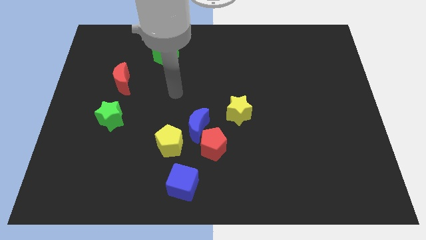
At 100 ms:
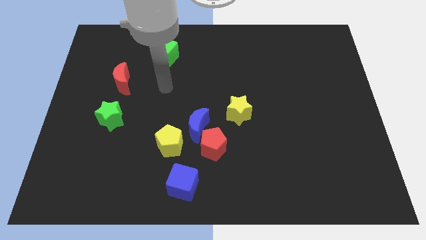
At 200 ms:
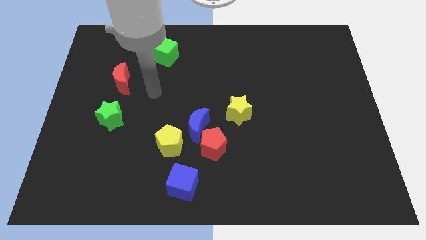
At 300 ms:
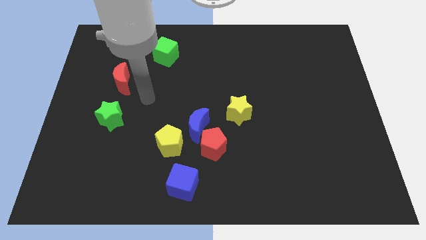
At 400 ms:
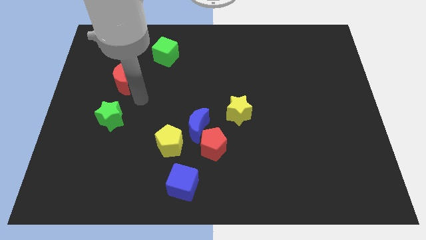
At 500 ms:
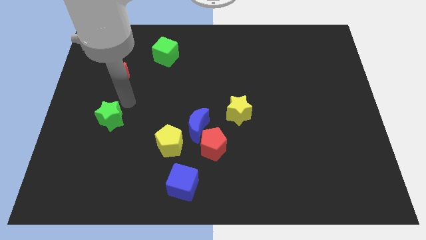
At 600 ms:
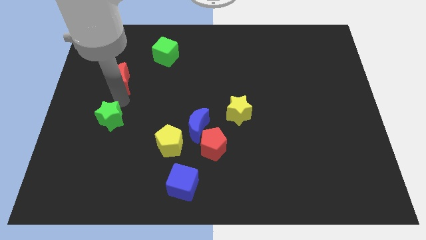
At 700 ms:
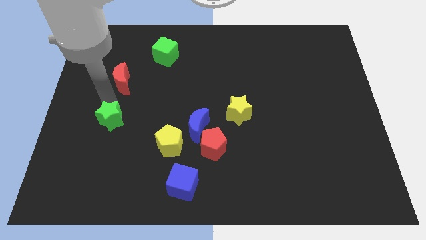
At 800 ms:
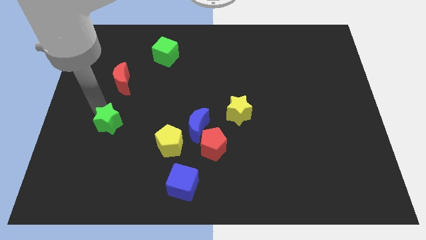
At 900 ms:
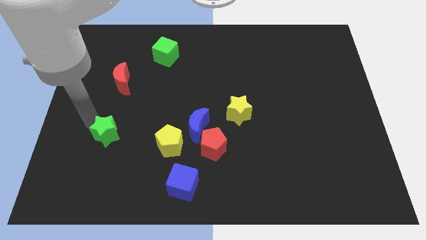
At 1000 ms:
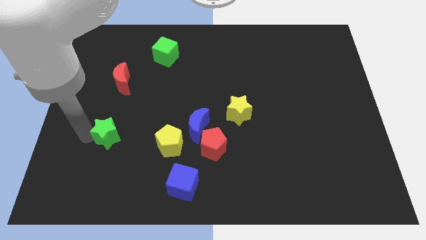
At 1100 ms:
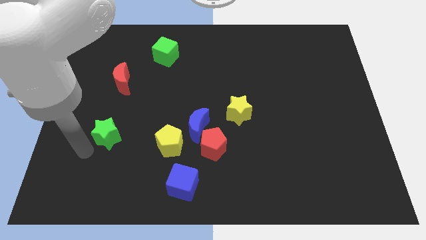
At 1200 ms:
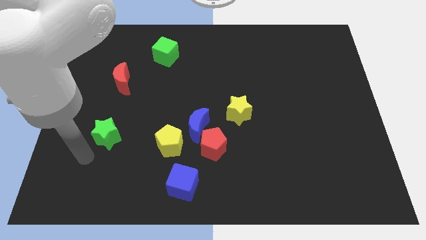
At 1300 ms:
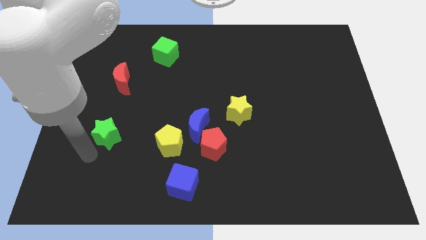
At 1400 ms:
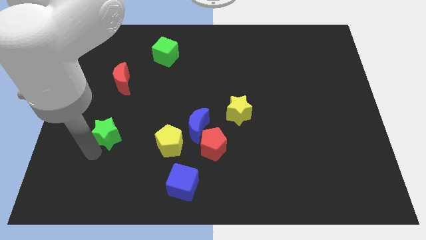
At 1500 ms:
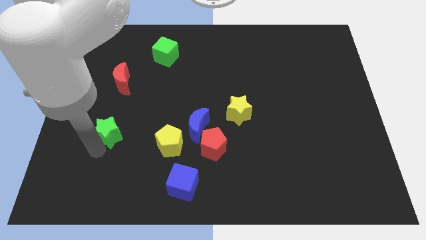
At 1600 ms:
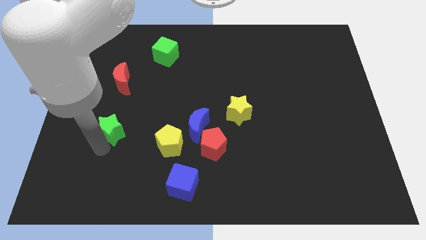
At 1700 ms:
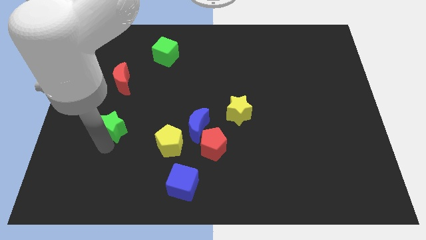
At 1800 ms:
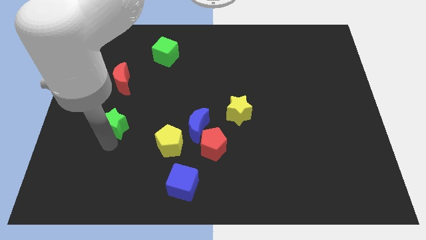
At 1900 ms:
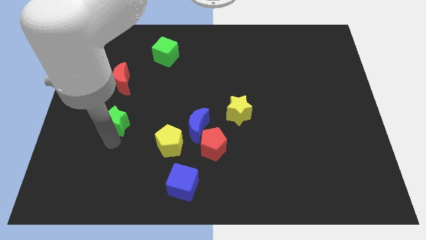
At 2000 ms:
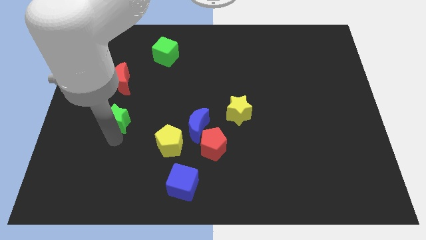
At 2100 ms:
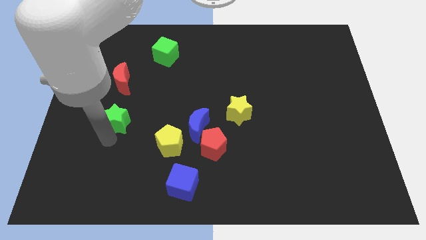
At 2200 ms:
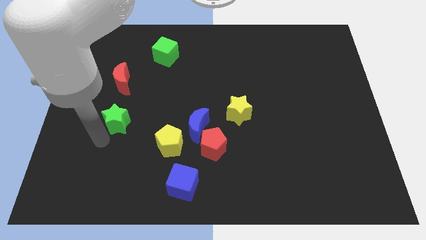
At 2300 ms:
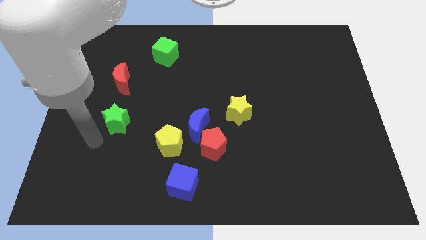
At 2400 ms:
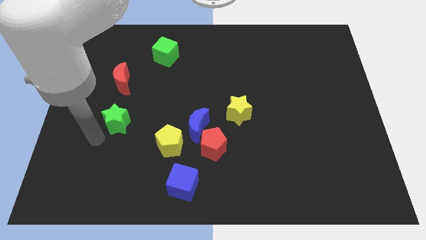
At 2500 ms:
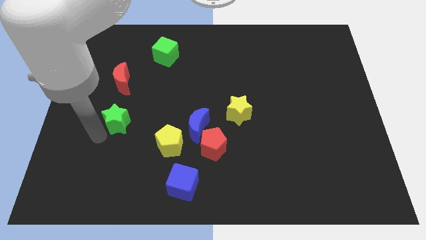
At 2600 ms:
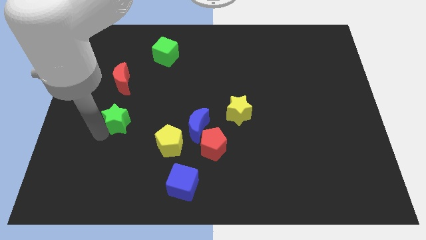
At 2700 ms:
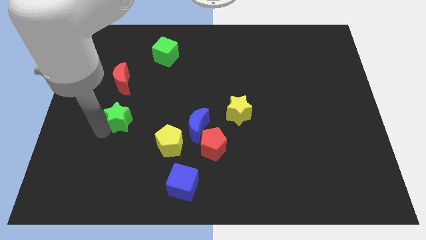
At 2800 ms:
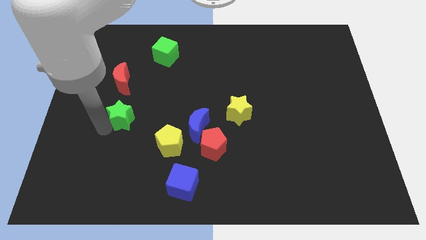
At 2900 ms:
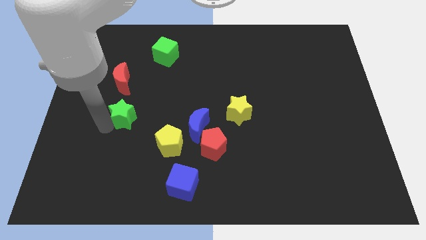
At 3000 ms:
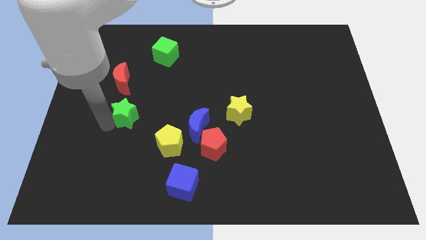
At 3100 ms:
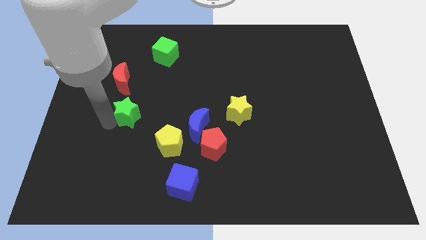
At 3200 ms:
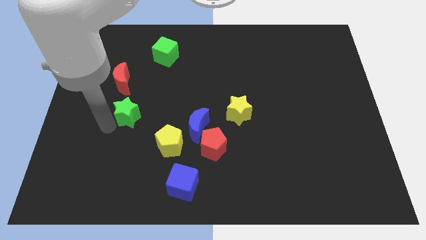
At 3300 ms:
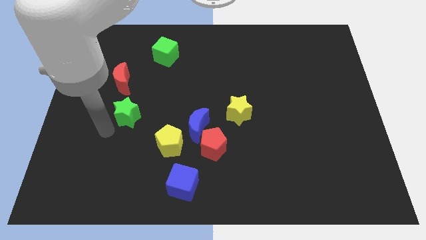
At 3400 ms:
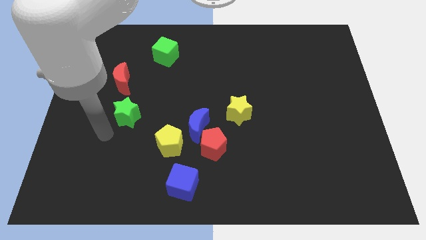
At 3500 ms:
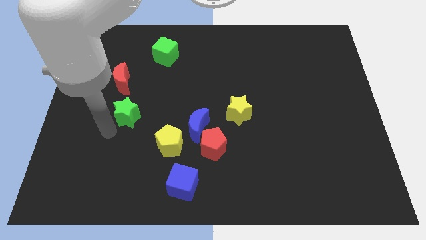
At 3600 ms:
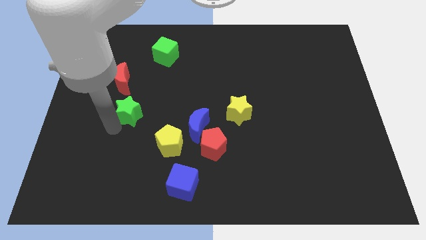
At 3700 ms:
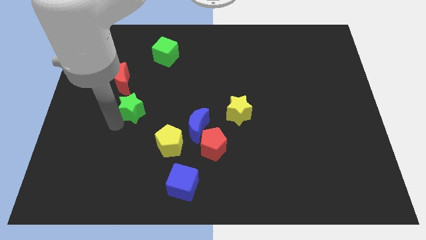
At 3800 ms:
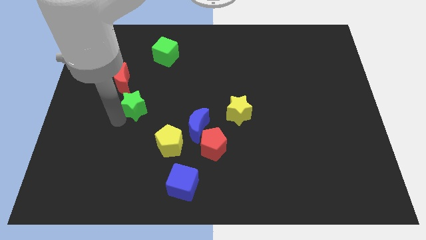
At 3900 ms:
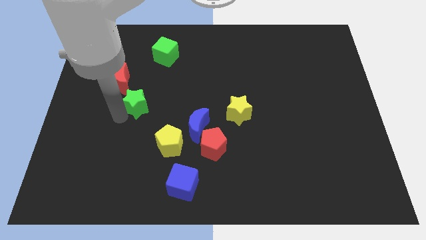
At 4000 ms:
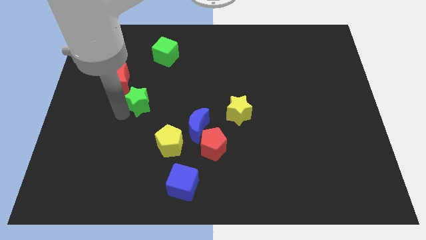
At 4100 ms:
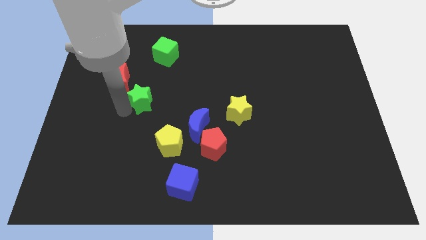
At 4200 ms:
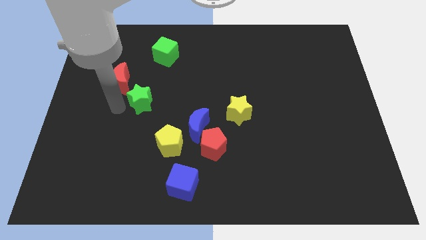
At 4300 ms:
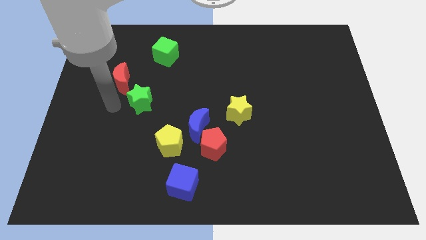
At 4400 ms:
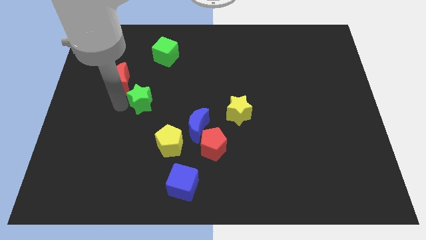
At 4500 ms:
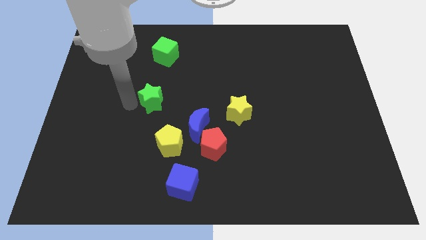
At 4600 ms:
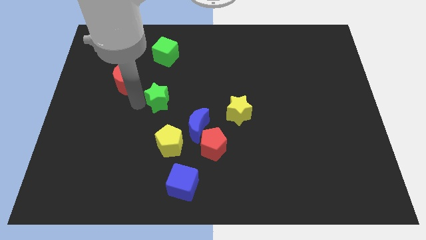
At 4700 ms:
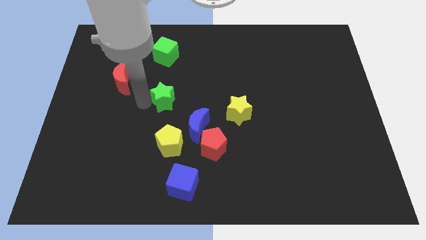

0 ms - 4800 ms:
move the green star to the middle

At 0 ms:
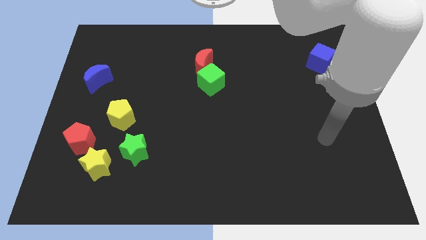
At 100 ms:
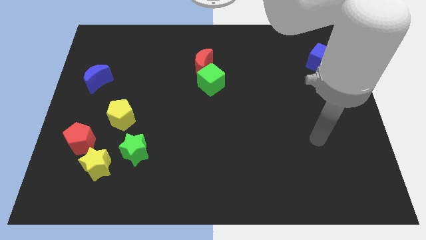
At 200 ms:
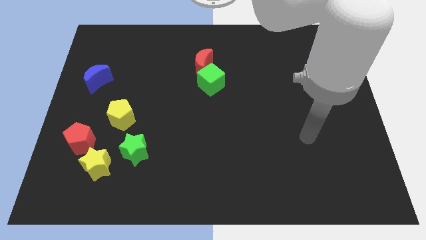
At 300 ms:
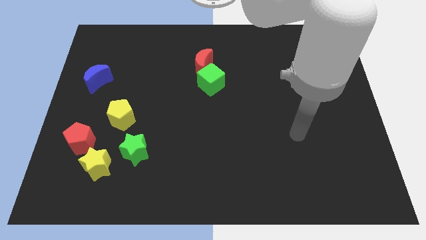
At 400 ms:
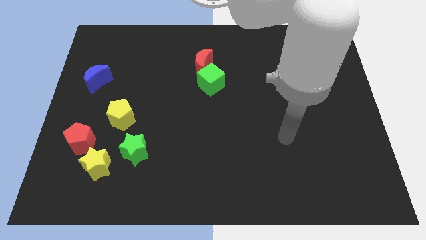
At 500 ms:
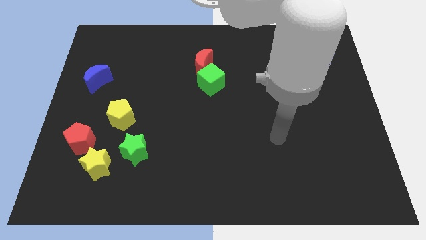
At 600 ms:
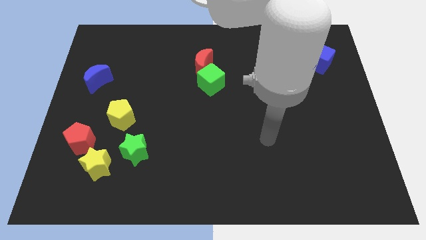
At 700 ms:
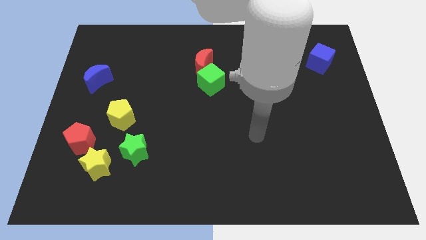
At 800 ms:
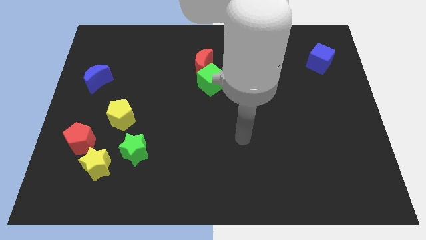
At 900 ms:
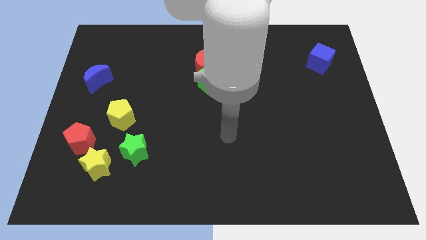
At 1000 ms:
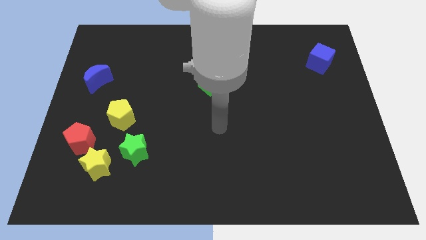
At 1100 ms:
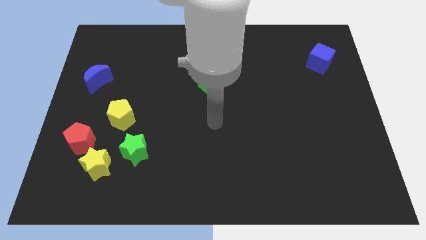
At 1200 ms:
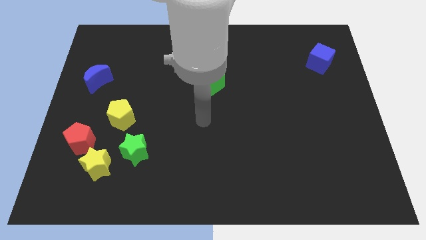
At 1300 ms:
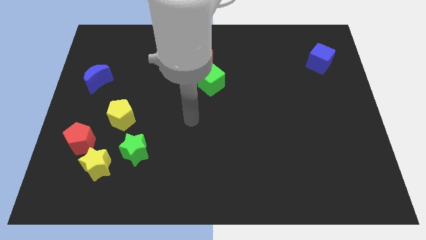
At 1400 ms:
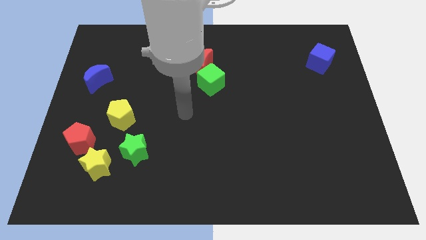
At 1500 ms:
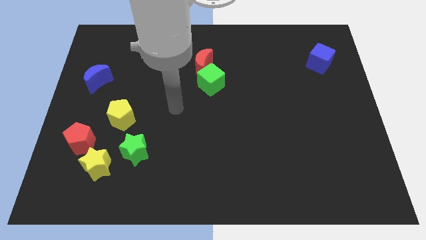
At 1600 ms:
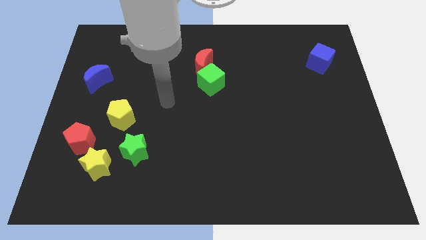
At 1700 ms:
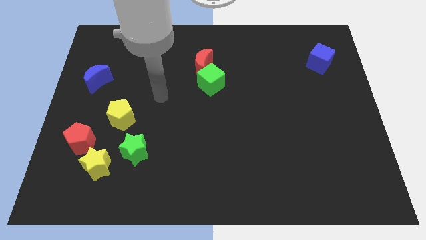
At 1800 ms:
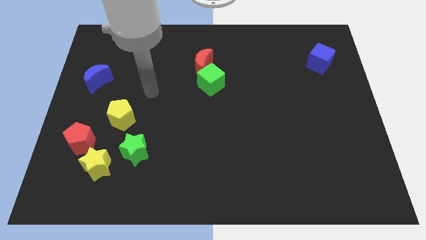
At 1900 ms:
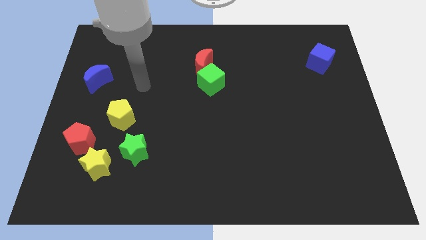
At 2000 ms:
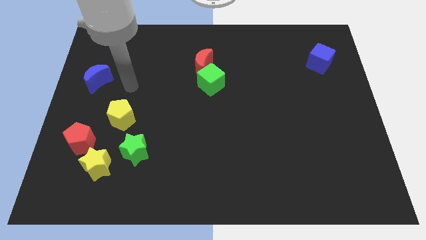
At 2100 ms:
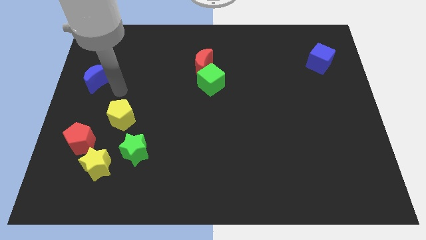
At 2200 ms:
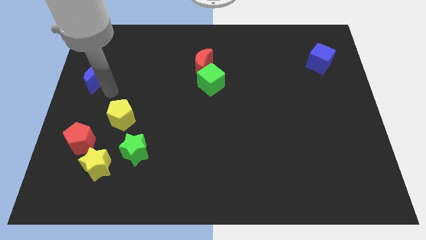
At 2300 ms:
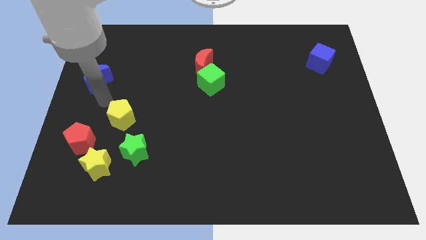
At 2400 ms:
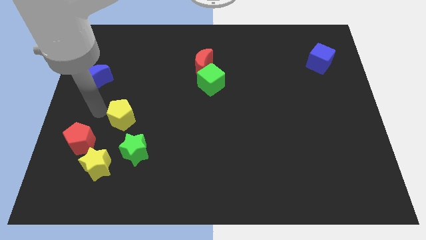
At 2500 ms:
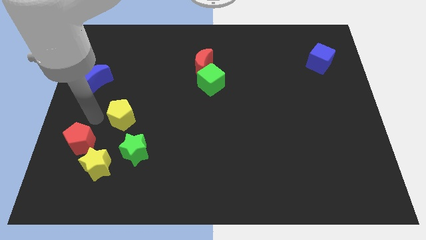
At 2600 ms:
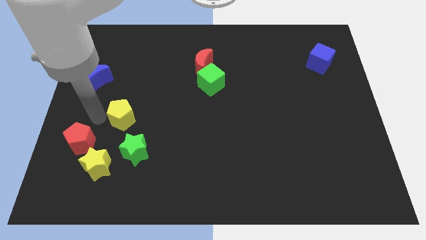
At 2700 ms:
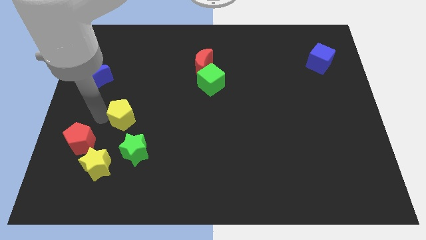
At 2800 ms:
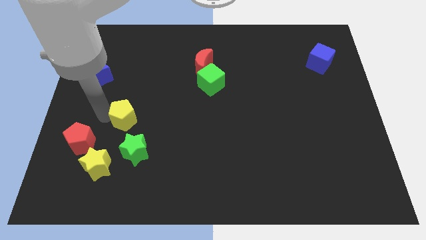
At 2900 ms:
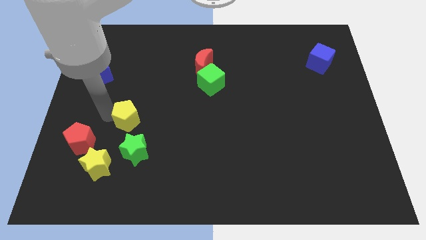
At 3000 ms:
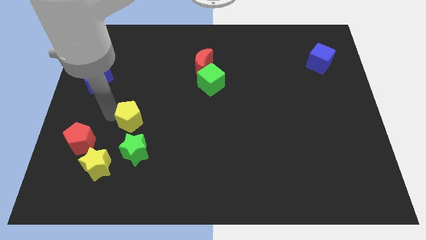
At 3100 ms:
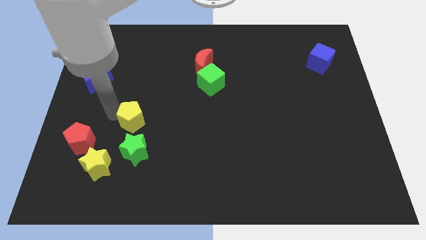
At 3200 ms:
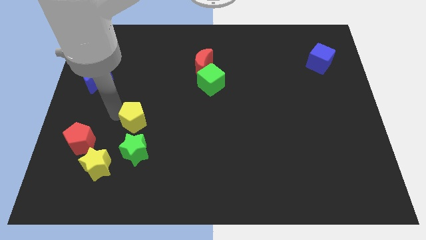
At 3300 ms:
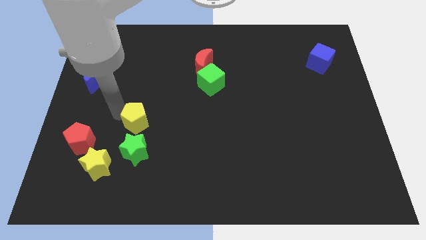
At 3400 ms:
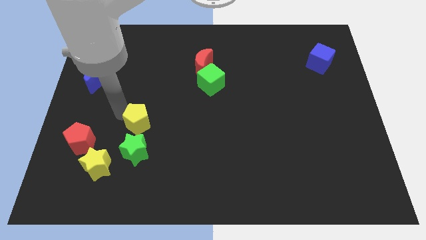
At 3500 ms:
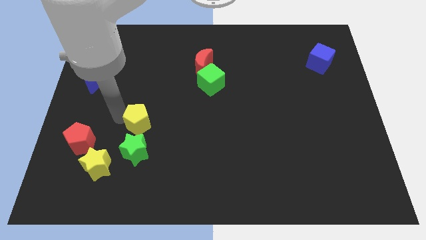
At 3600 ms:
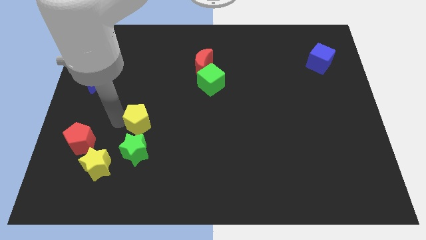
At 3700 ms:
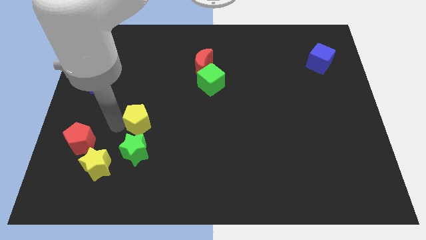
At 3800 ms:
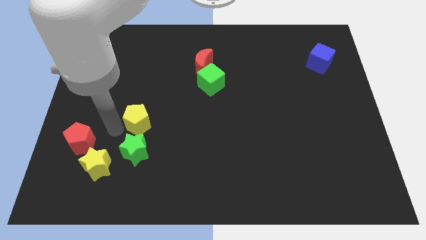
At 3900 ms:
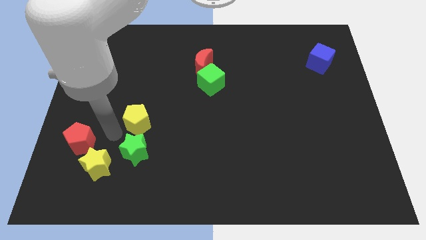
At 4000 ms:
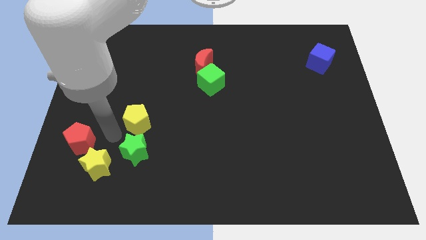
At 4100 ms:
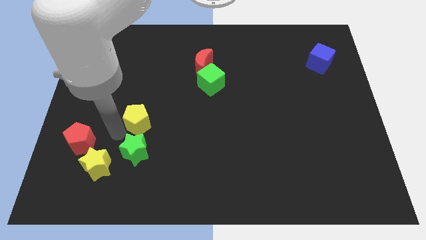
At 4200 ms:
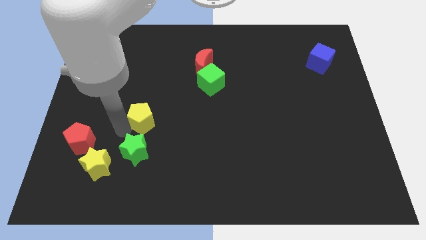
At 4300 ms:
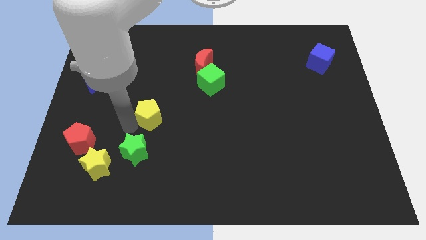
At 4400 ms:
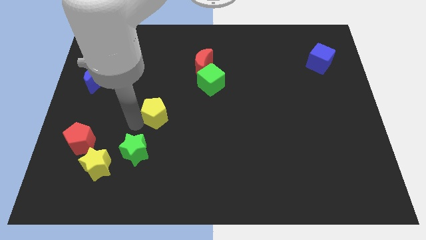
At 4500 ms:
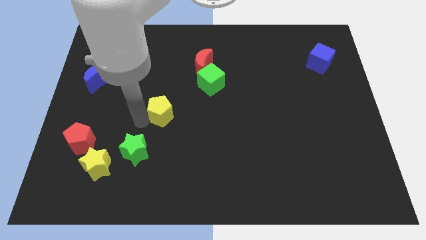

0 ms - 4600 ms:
slide the yellow pentagon to the center
